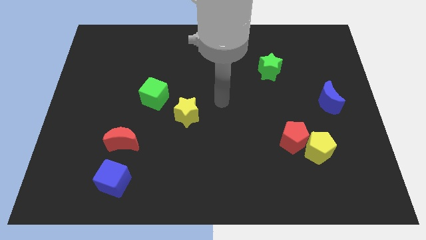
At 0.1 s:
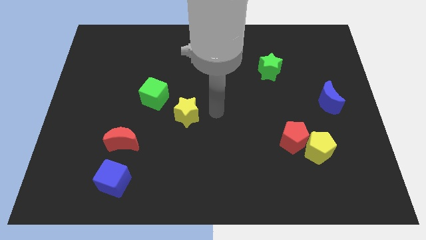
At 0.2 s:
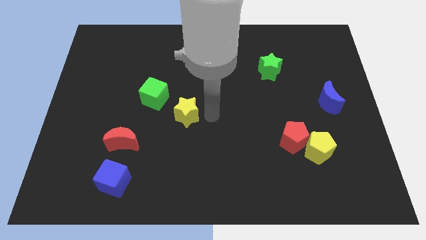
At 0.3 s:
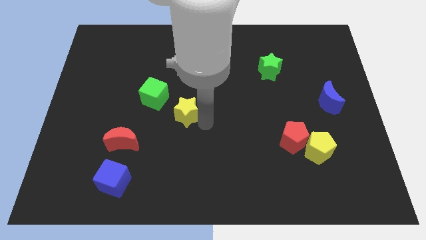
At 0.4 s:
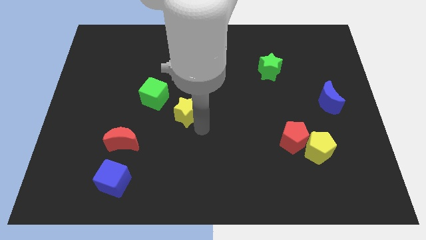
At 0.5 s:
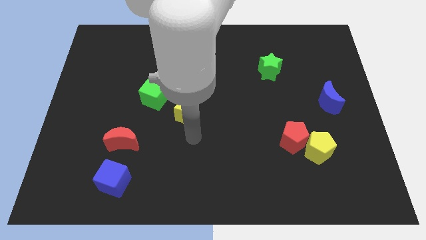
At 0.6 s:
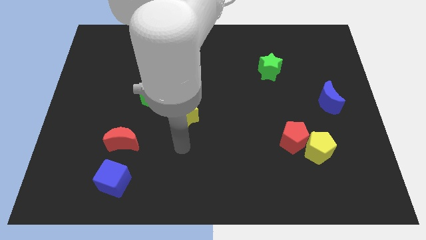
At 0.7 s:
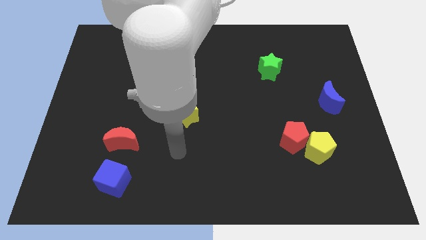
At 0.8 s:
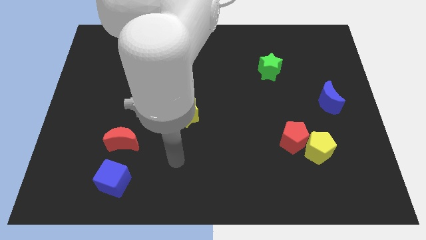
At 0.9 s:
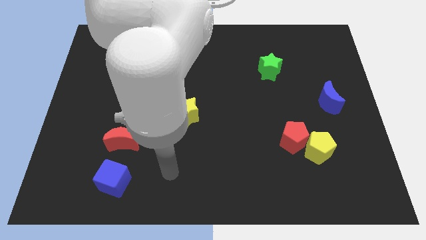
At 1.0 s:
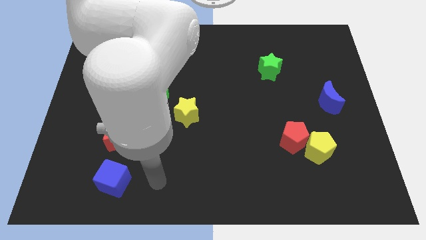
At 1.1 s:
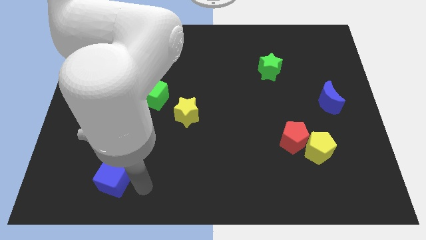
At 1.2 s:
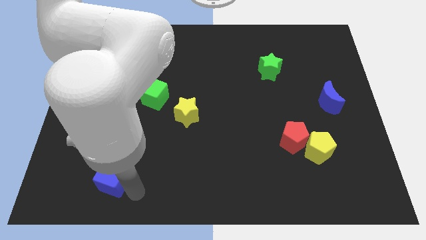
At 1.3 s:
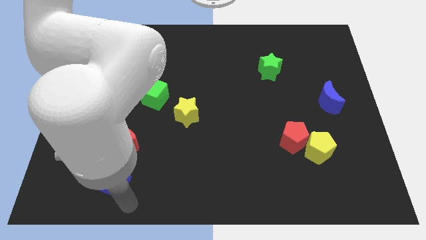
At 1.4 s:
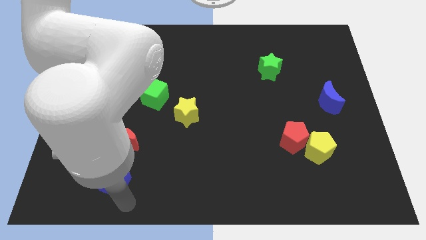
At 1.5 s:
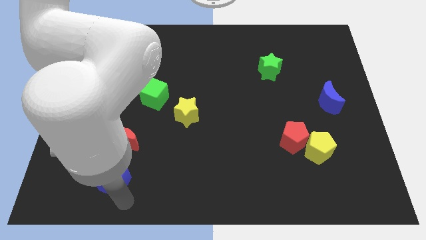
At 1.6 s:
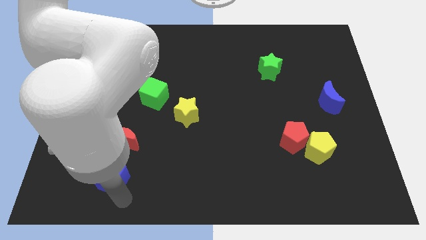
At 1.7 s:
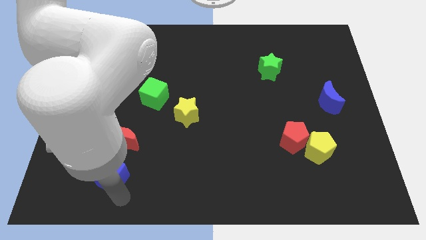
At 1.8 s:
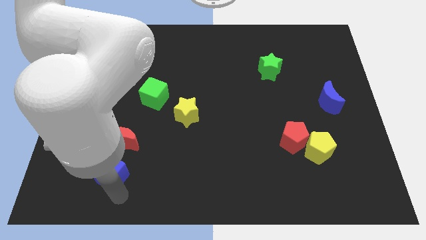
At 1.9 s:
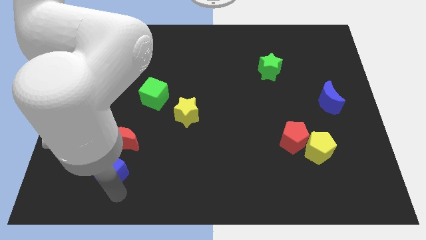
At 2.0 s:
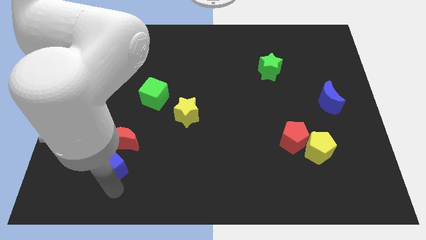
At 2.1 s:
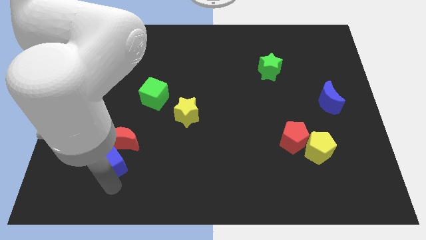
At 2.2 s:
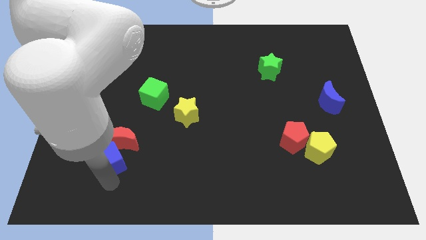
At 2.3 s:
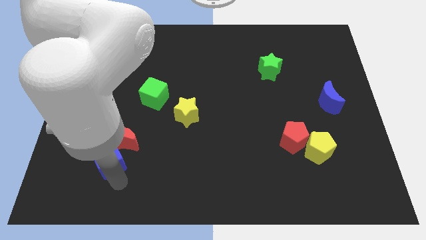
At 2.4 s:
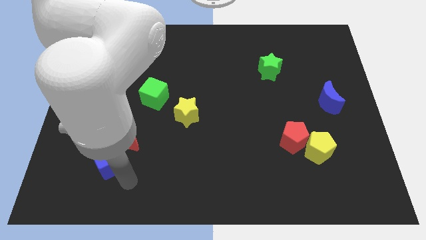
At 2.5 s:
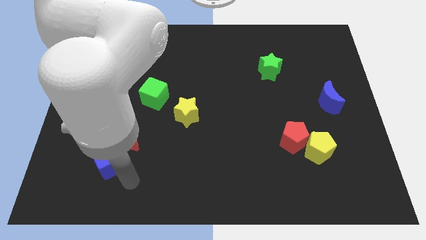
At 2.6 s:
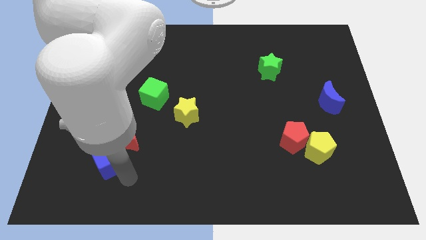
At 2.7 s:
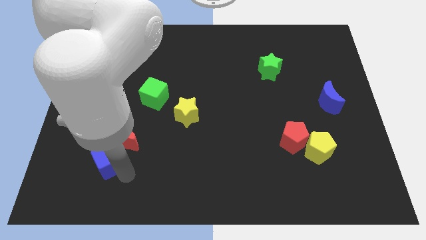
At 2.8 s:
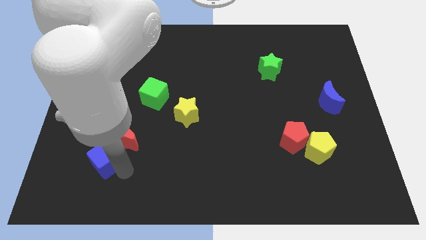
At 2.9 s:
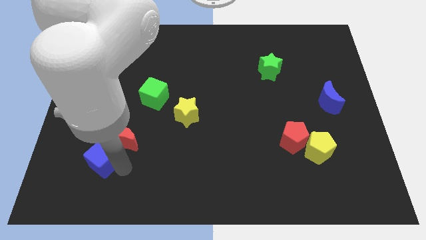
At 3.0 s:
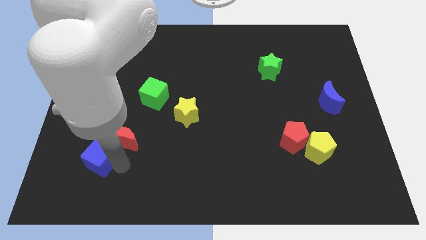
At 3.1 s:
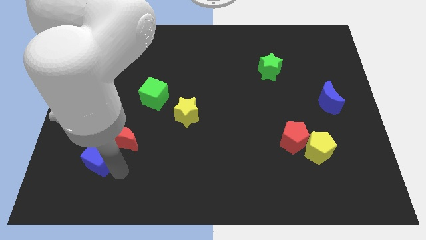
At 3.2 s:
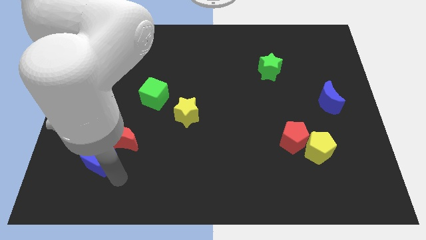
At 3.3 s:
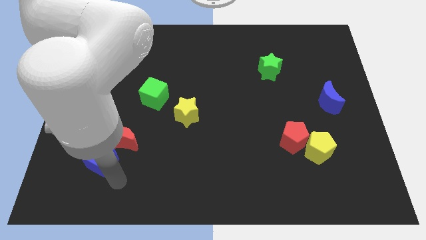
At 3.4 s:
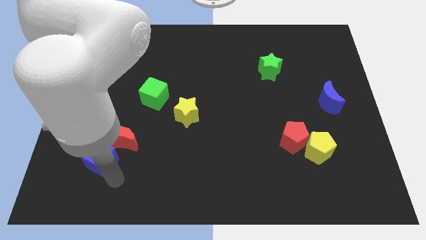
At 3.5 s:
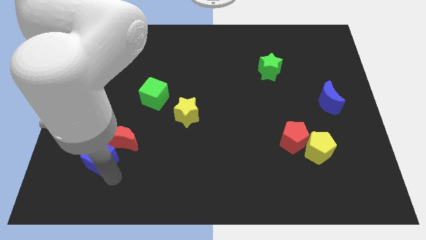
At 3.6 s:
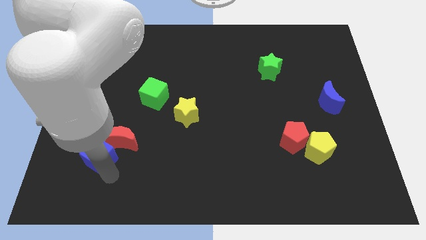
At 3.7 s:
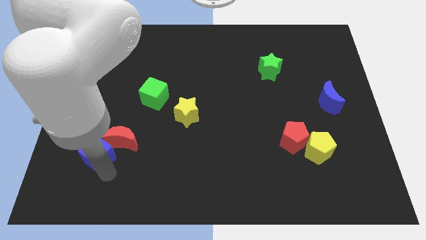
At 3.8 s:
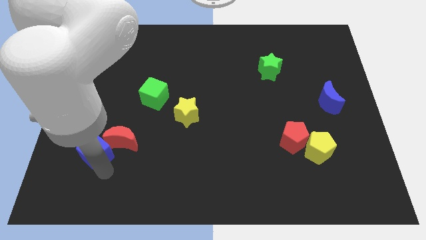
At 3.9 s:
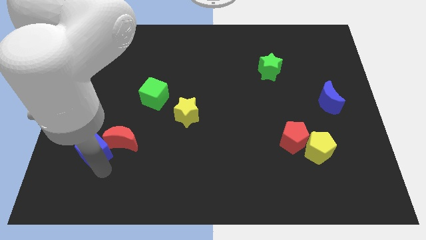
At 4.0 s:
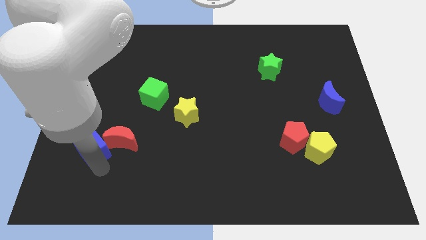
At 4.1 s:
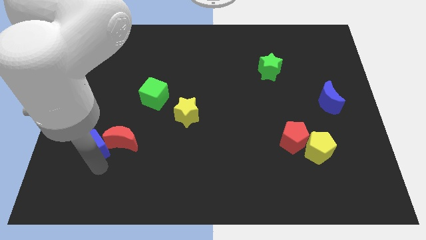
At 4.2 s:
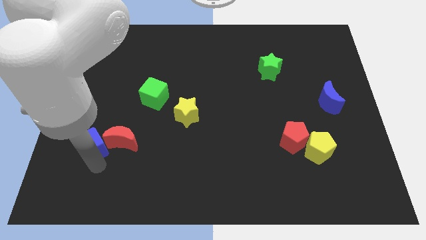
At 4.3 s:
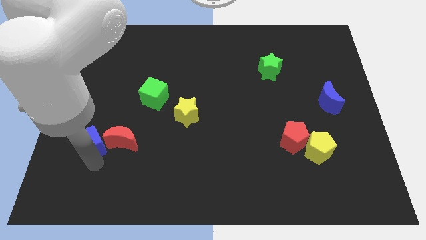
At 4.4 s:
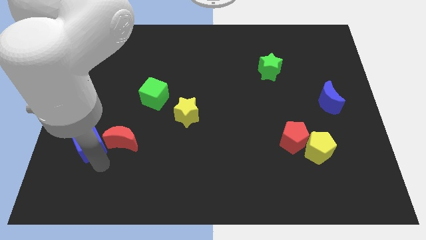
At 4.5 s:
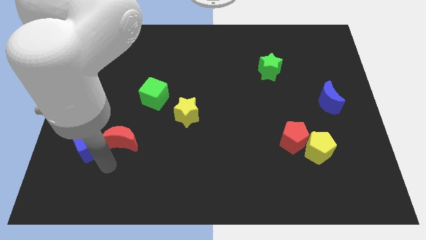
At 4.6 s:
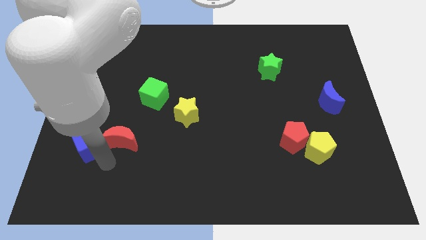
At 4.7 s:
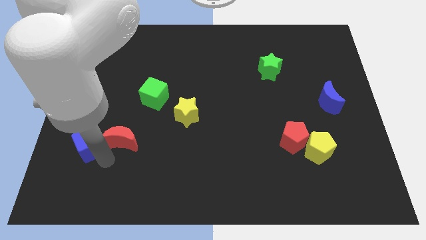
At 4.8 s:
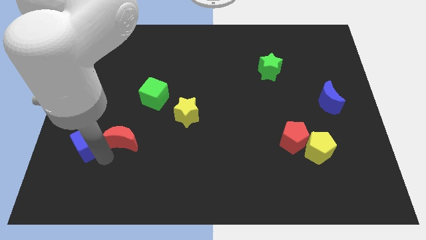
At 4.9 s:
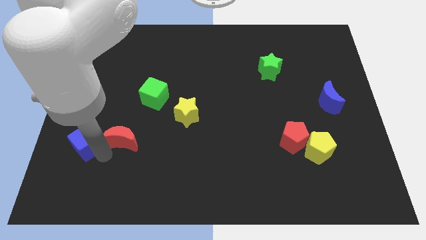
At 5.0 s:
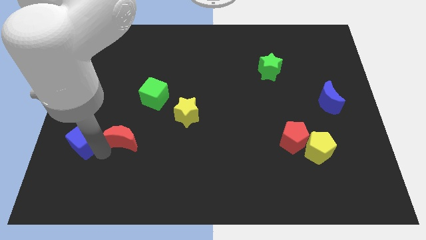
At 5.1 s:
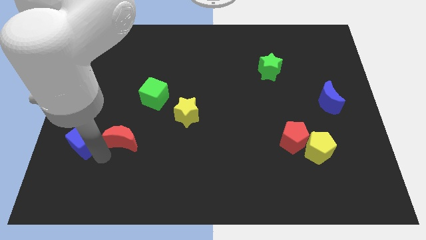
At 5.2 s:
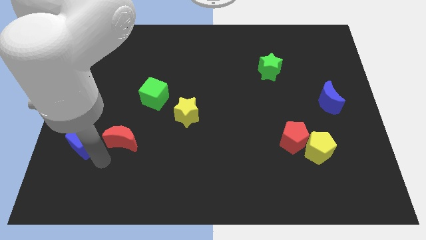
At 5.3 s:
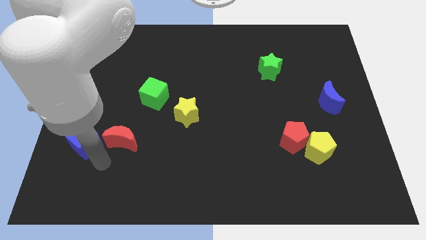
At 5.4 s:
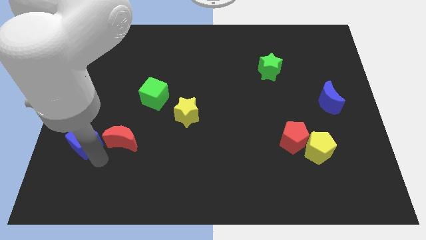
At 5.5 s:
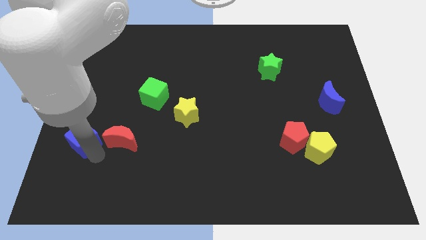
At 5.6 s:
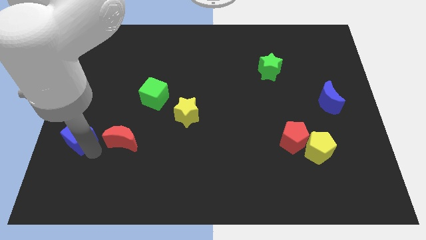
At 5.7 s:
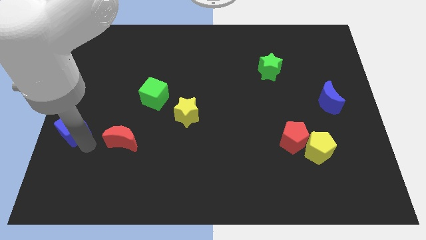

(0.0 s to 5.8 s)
move the blue cube to the left side of the board

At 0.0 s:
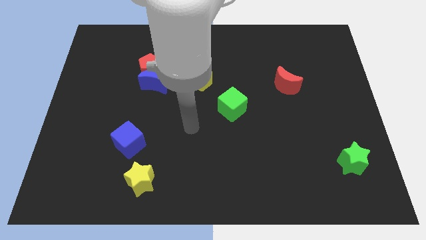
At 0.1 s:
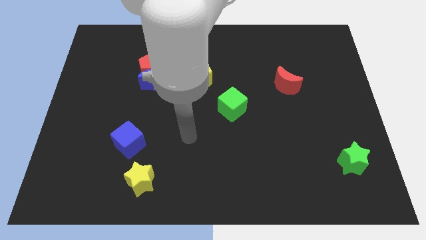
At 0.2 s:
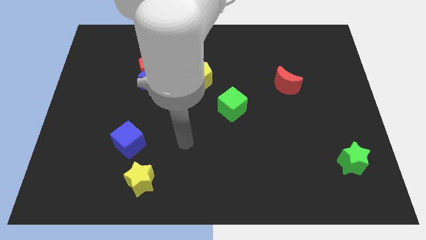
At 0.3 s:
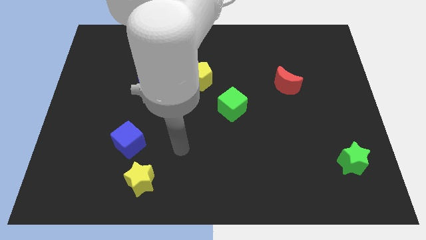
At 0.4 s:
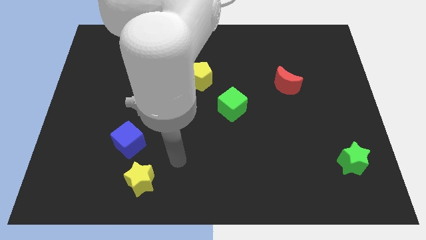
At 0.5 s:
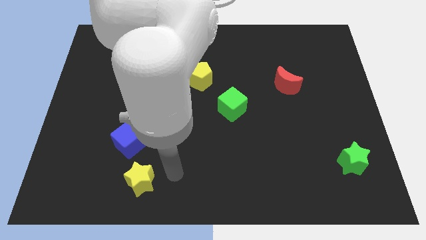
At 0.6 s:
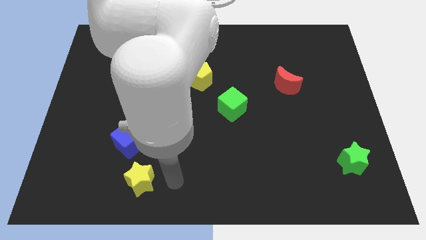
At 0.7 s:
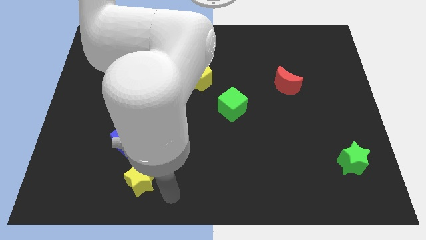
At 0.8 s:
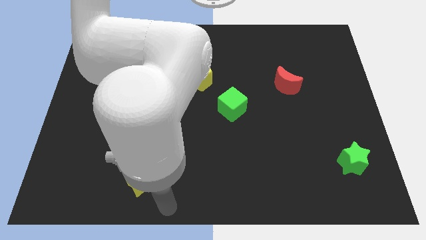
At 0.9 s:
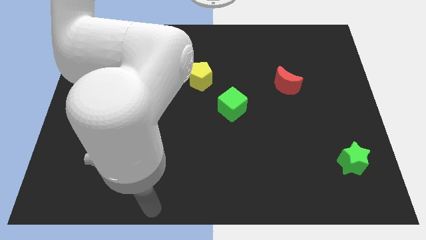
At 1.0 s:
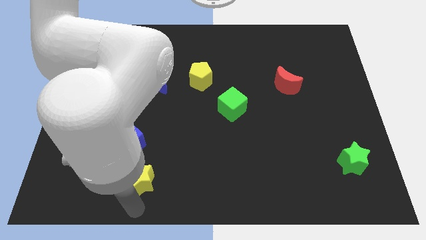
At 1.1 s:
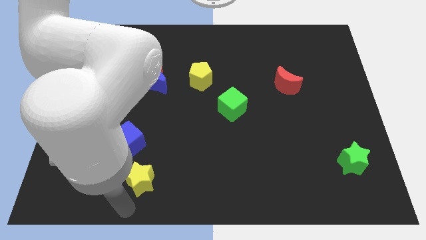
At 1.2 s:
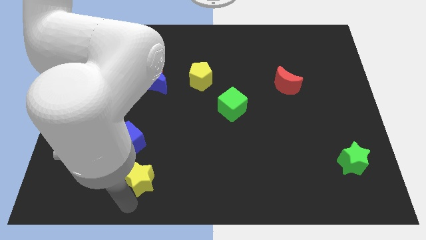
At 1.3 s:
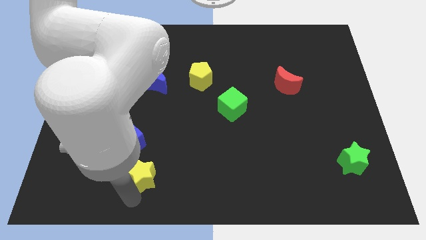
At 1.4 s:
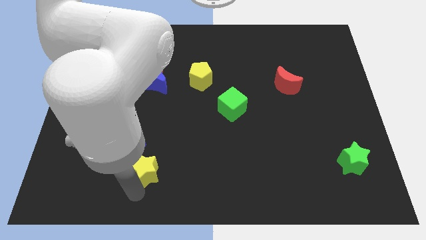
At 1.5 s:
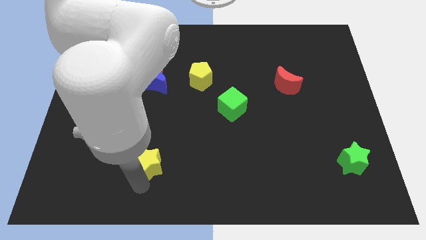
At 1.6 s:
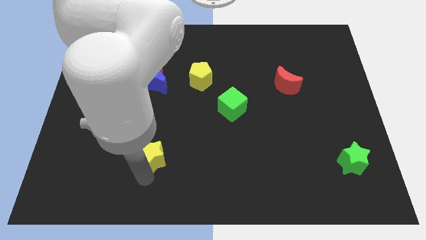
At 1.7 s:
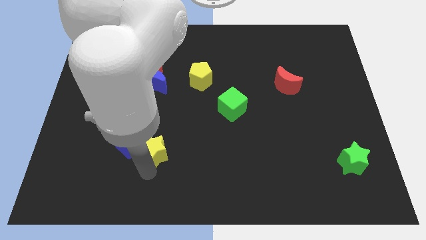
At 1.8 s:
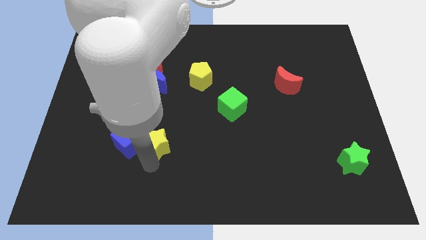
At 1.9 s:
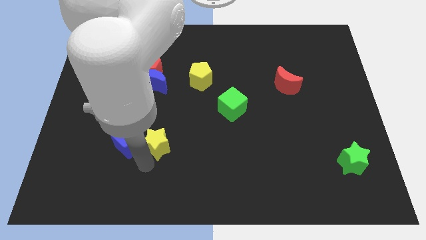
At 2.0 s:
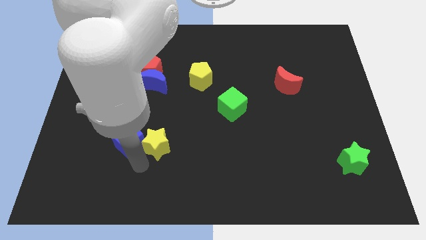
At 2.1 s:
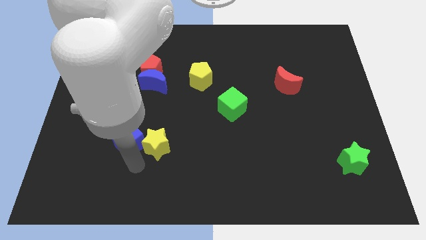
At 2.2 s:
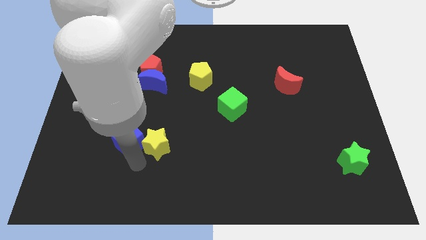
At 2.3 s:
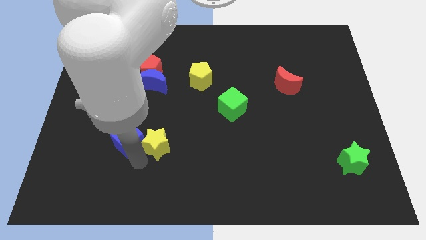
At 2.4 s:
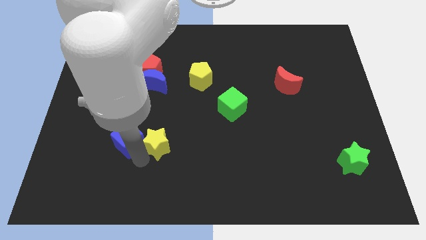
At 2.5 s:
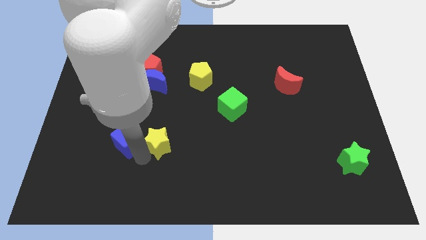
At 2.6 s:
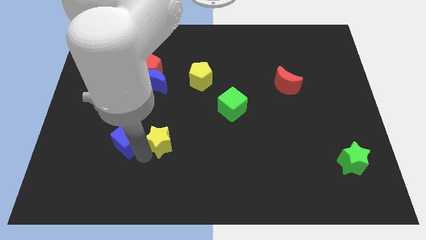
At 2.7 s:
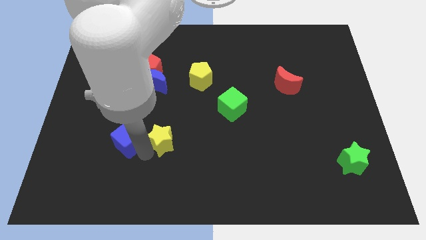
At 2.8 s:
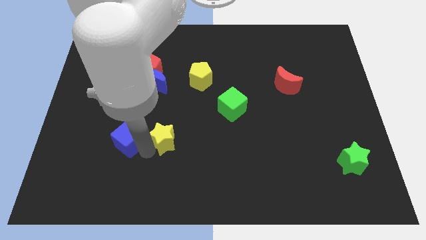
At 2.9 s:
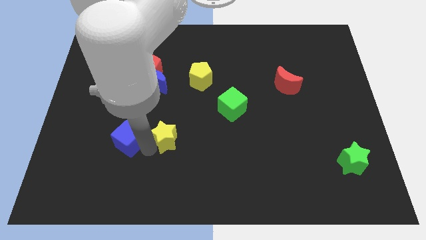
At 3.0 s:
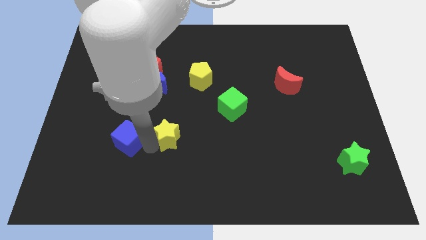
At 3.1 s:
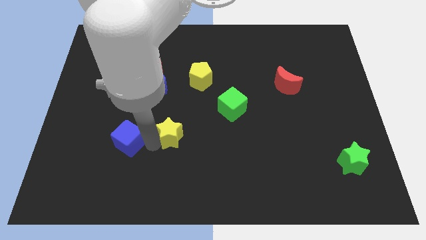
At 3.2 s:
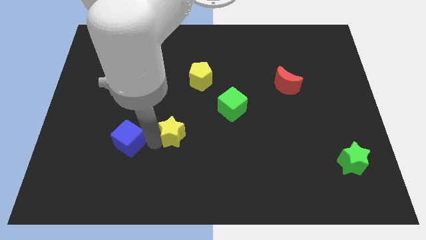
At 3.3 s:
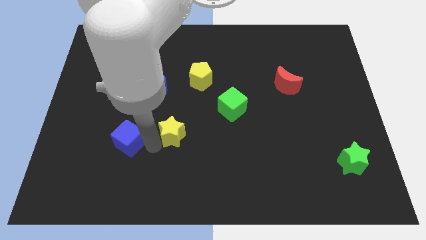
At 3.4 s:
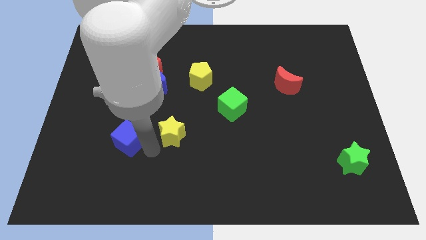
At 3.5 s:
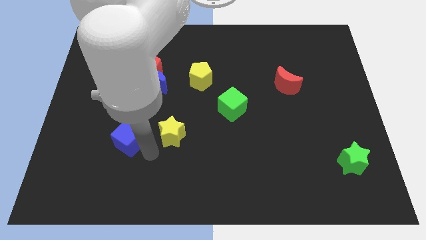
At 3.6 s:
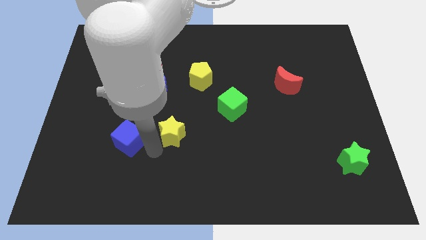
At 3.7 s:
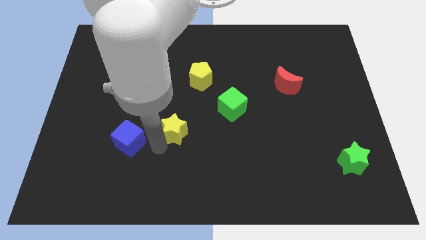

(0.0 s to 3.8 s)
move the yellow star to the middle
